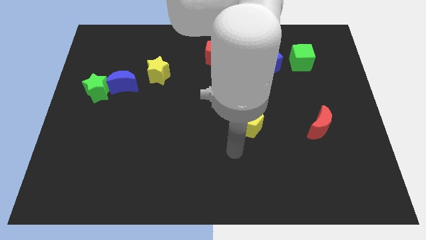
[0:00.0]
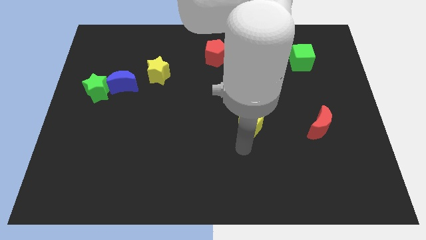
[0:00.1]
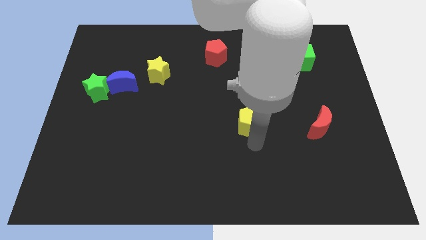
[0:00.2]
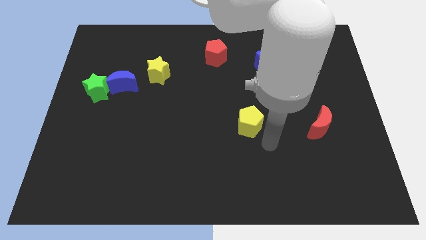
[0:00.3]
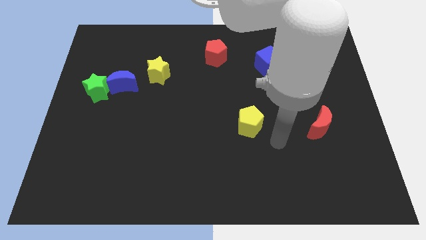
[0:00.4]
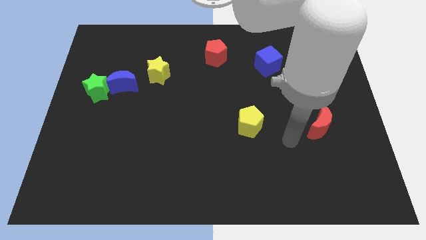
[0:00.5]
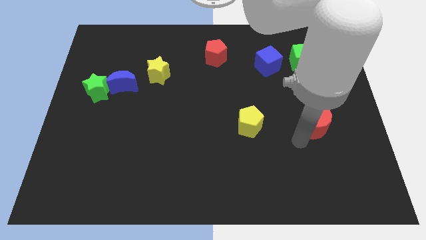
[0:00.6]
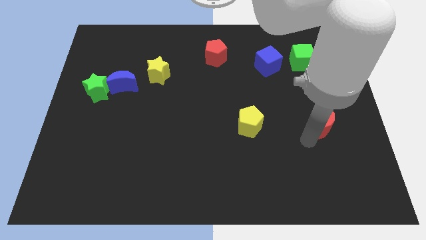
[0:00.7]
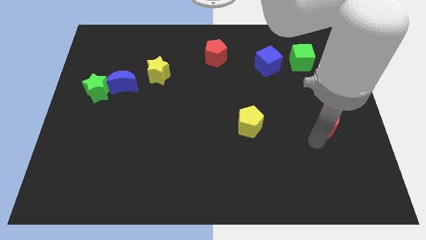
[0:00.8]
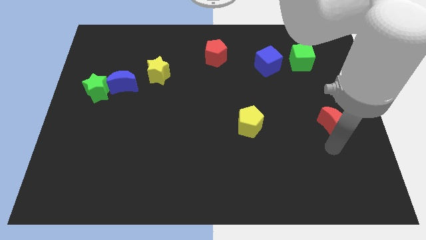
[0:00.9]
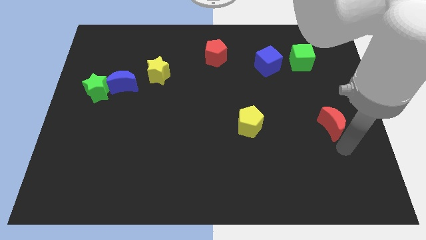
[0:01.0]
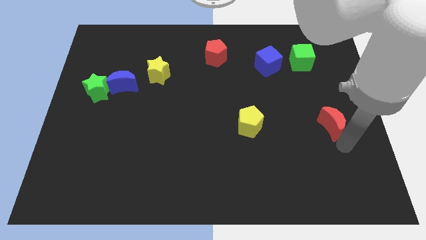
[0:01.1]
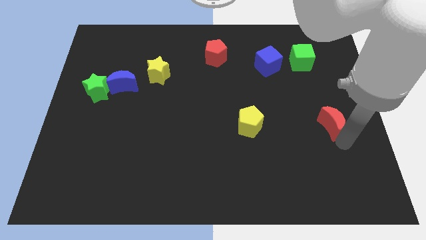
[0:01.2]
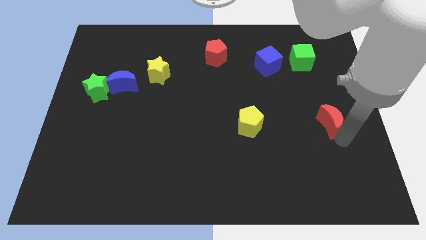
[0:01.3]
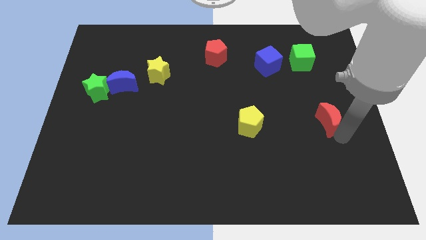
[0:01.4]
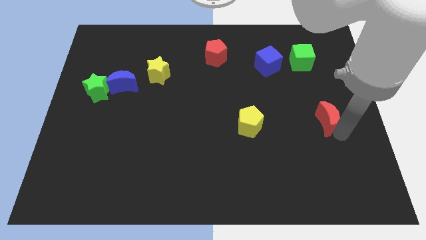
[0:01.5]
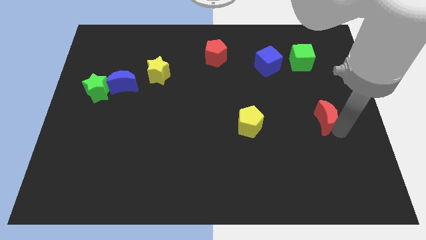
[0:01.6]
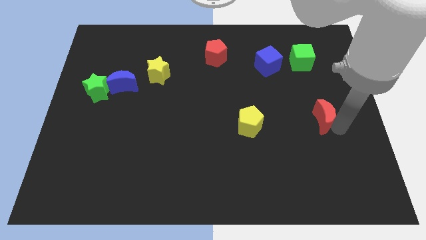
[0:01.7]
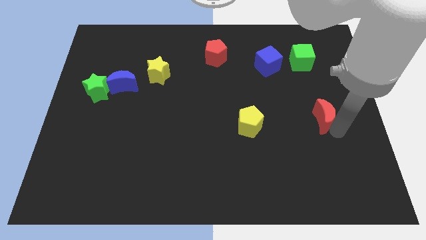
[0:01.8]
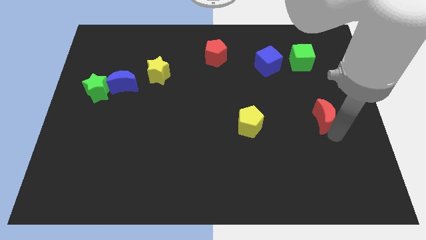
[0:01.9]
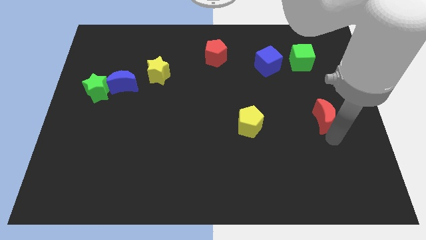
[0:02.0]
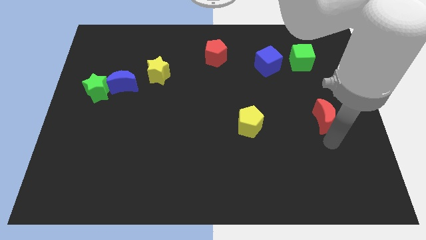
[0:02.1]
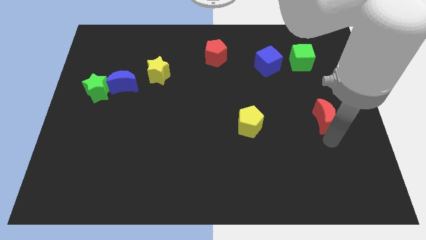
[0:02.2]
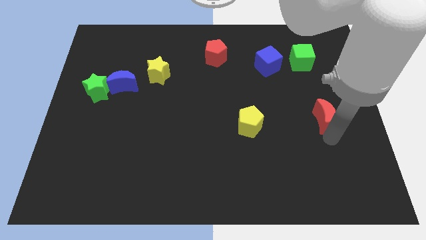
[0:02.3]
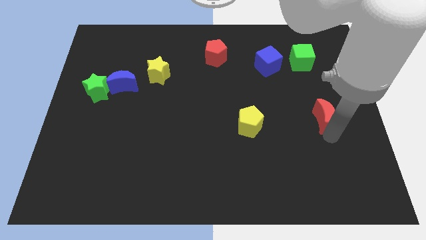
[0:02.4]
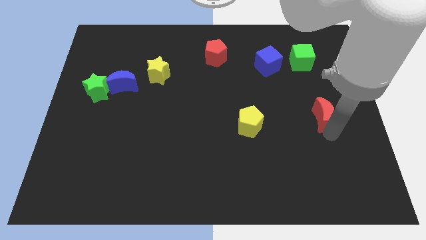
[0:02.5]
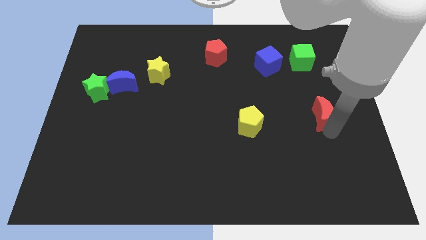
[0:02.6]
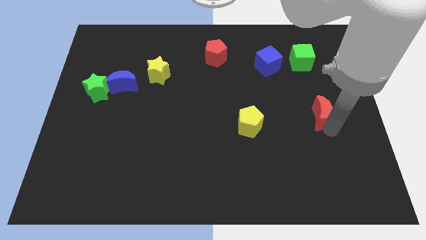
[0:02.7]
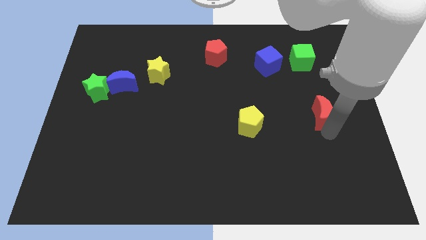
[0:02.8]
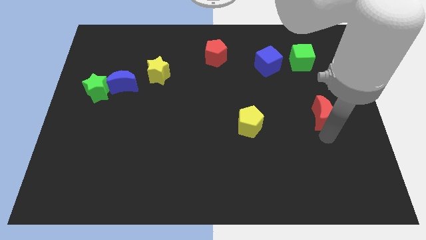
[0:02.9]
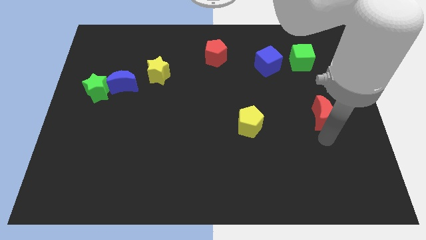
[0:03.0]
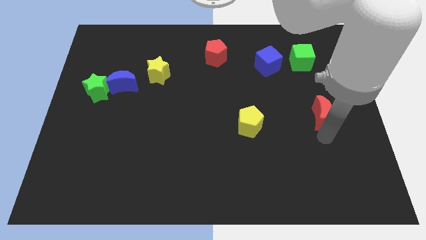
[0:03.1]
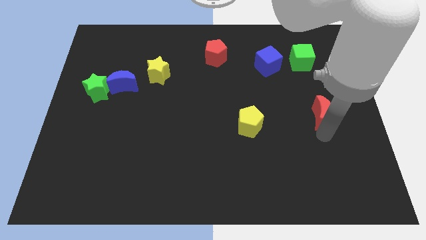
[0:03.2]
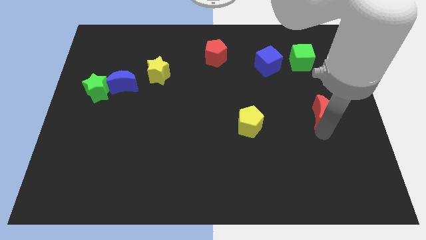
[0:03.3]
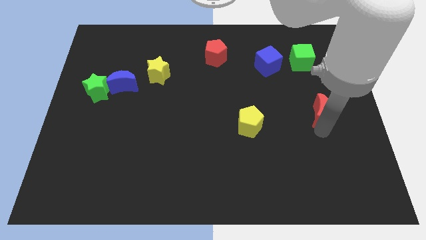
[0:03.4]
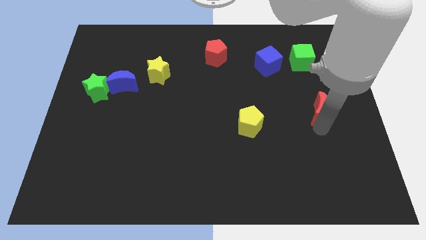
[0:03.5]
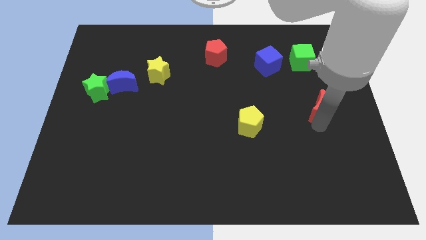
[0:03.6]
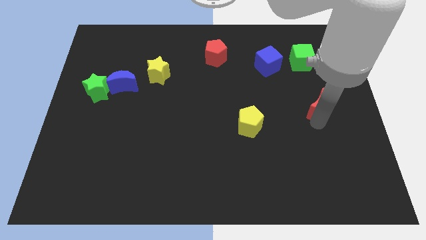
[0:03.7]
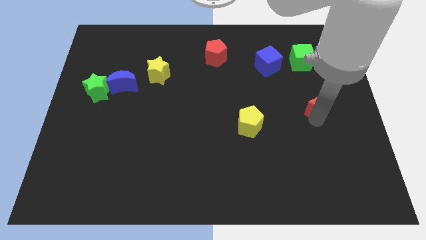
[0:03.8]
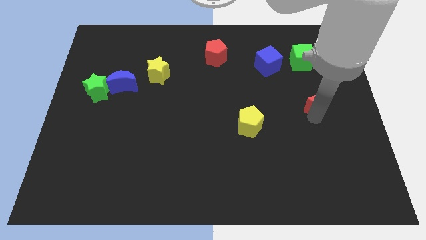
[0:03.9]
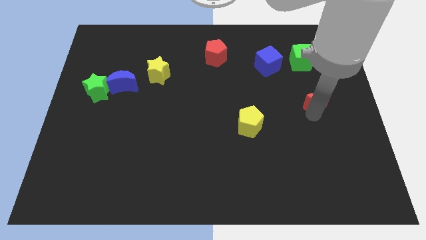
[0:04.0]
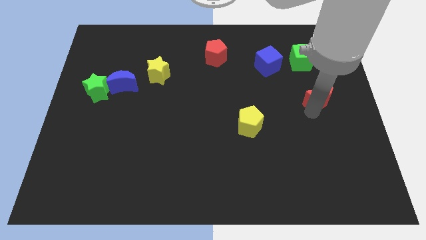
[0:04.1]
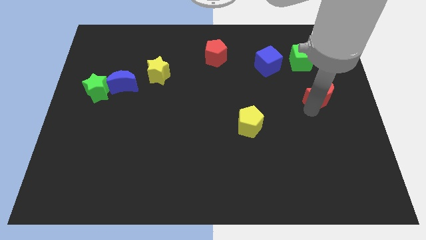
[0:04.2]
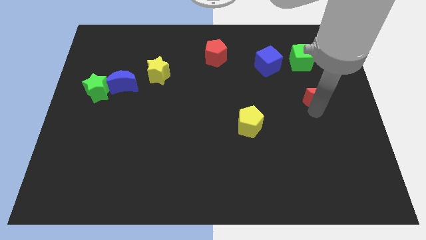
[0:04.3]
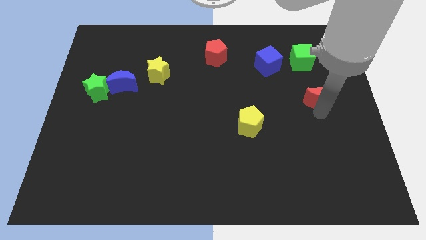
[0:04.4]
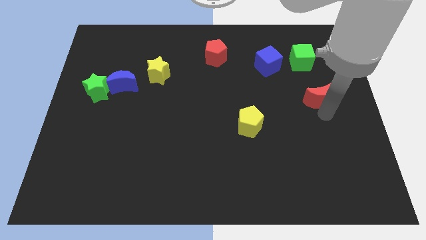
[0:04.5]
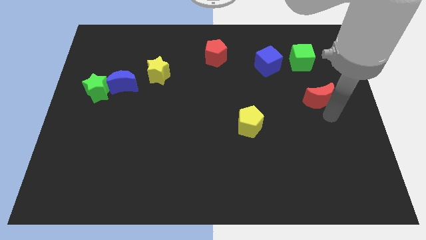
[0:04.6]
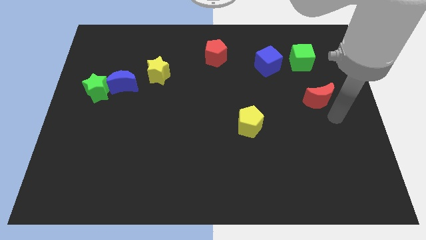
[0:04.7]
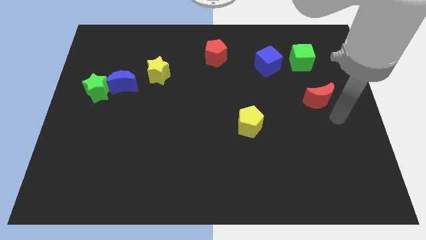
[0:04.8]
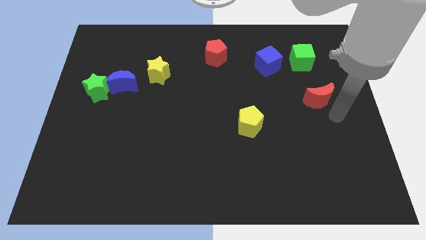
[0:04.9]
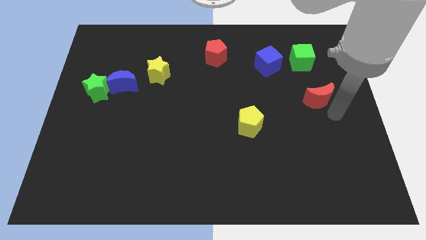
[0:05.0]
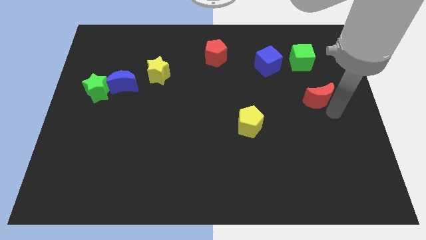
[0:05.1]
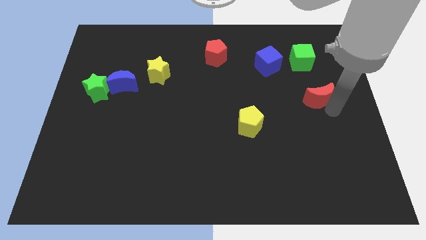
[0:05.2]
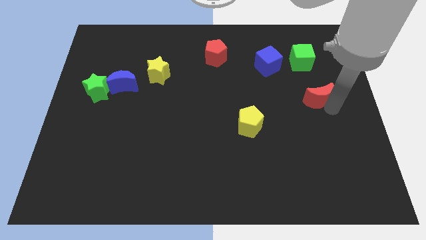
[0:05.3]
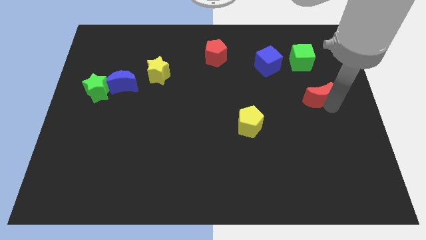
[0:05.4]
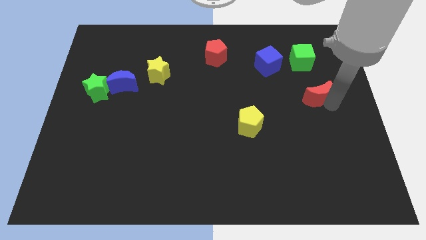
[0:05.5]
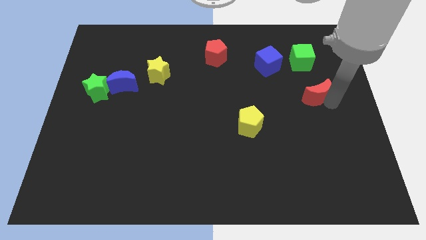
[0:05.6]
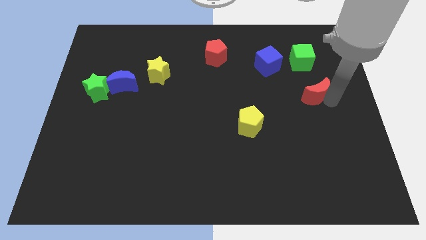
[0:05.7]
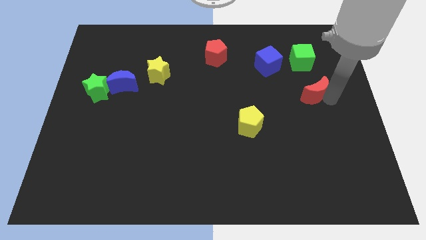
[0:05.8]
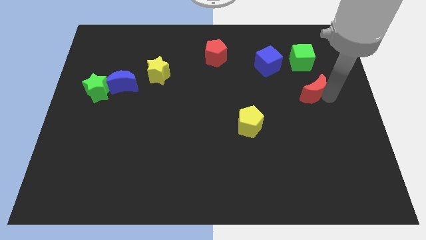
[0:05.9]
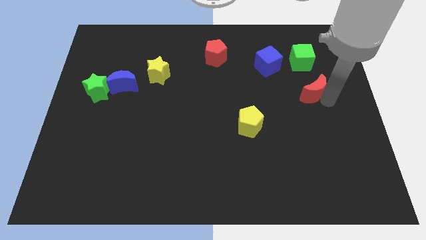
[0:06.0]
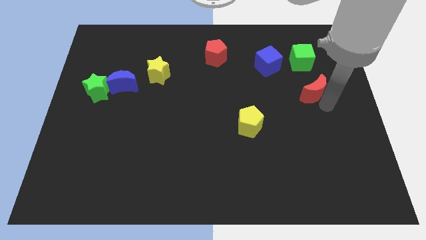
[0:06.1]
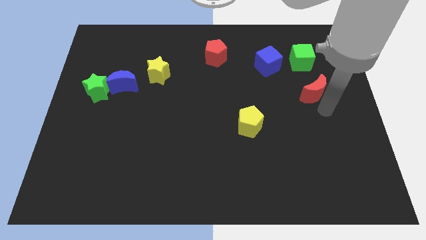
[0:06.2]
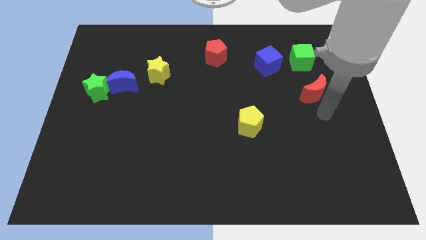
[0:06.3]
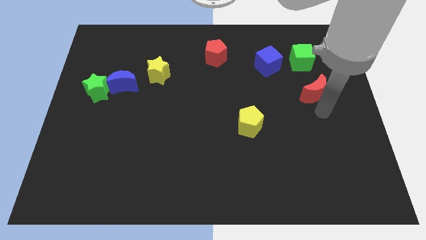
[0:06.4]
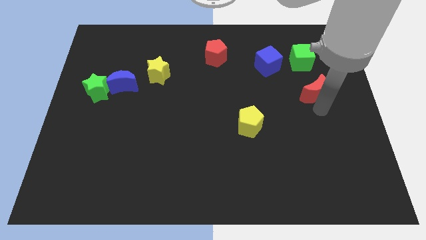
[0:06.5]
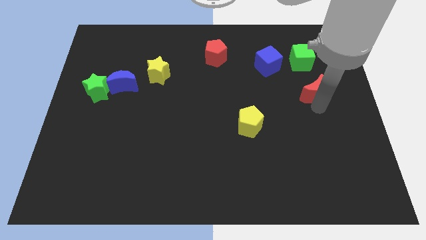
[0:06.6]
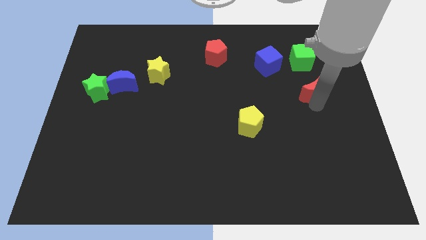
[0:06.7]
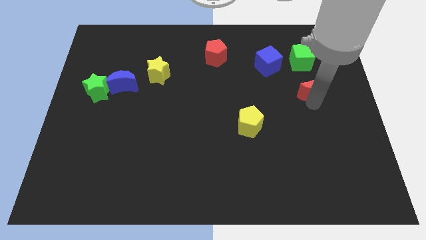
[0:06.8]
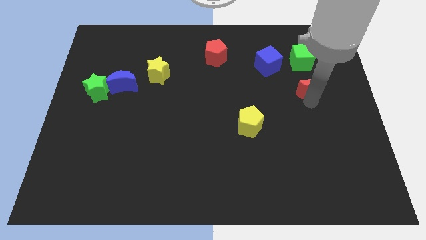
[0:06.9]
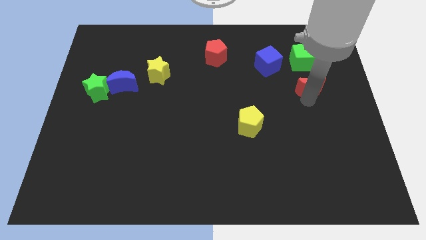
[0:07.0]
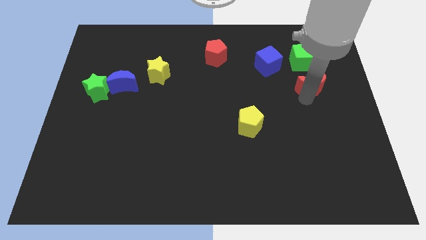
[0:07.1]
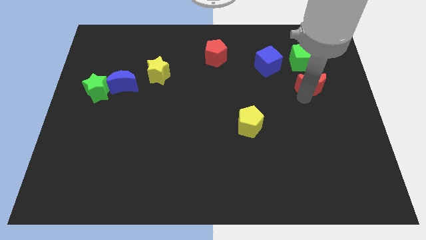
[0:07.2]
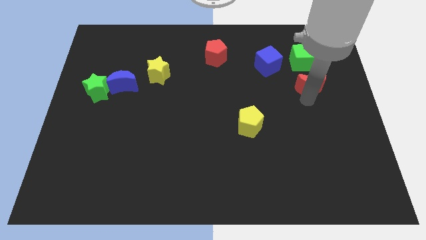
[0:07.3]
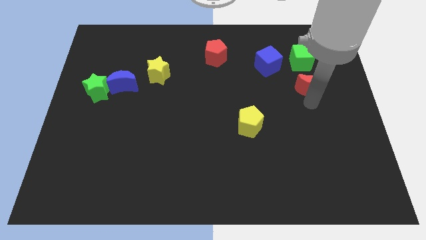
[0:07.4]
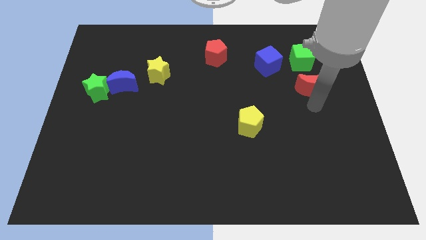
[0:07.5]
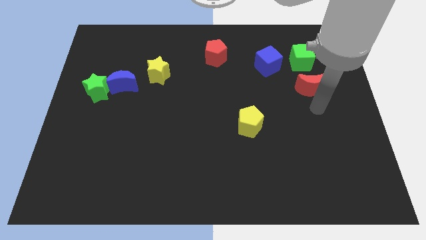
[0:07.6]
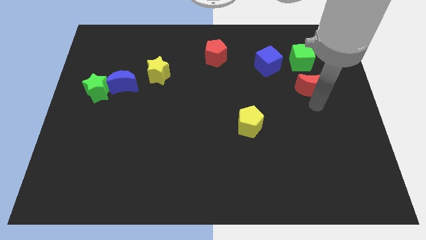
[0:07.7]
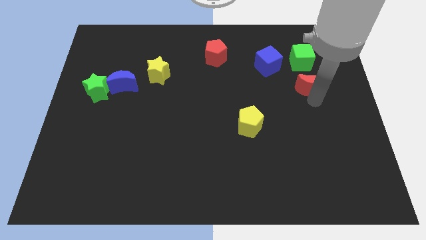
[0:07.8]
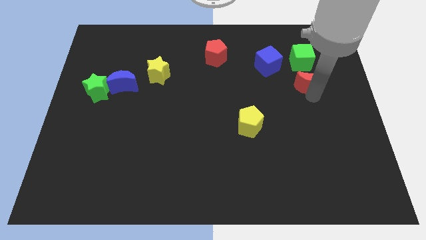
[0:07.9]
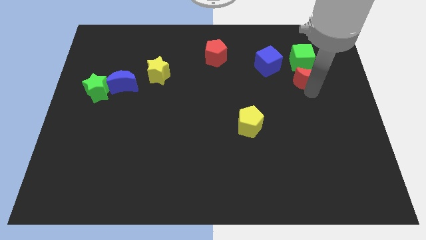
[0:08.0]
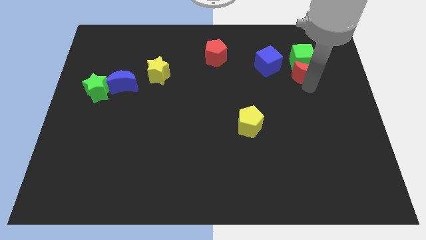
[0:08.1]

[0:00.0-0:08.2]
slide the red moon next to the green cube
